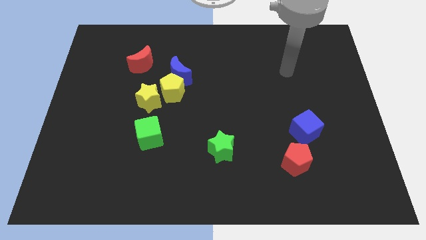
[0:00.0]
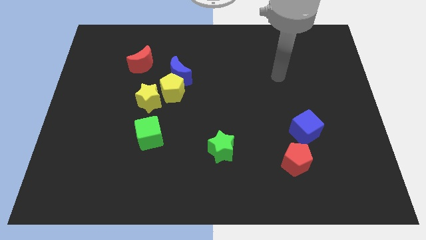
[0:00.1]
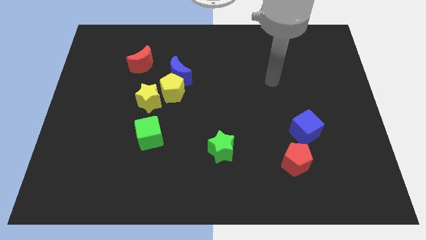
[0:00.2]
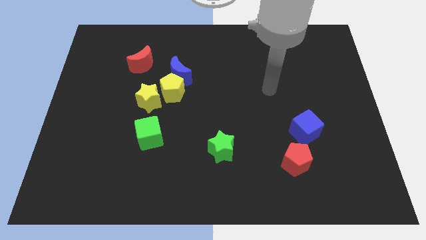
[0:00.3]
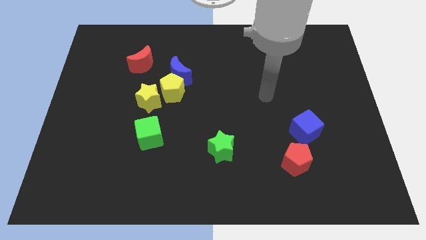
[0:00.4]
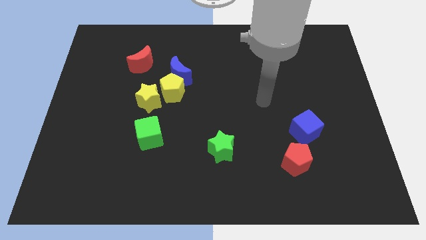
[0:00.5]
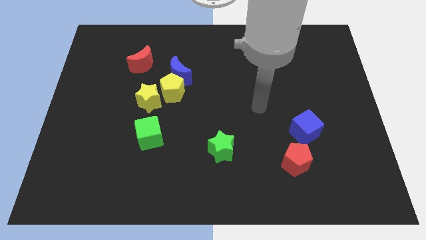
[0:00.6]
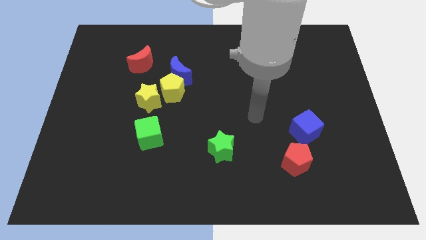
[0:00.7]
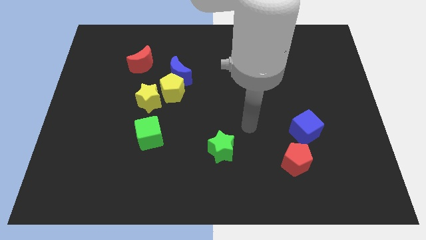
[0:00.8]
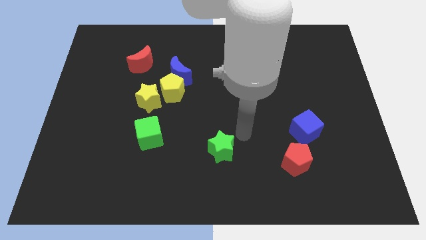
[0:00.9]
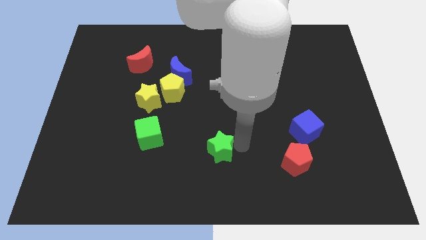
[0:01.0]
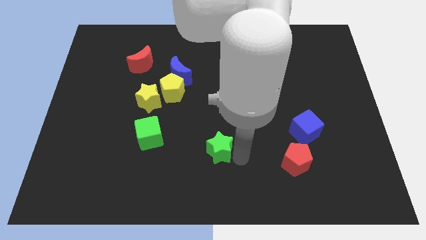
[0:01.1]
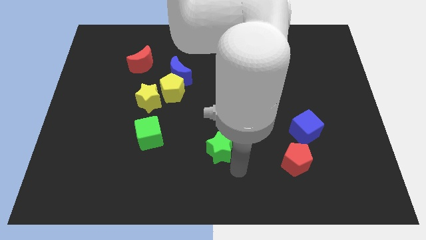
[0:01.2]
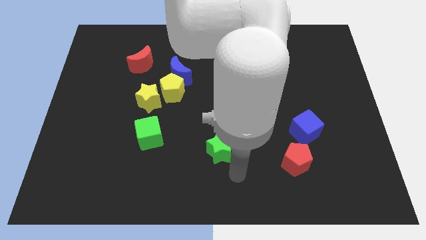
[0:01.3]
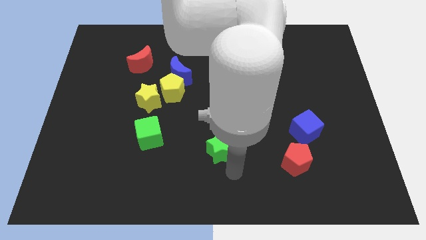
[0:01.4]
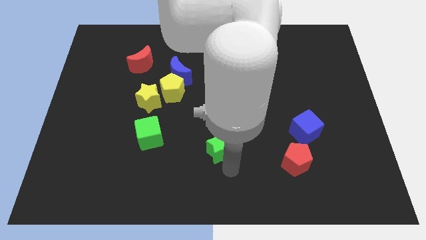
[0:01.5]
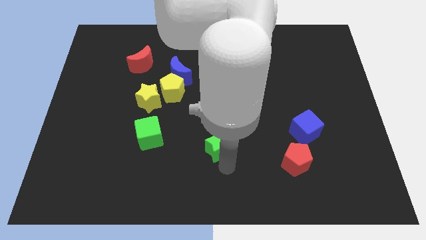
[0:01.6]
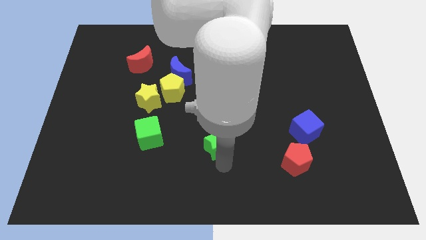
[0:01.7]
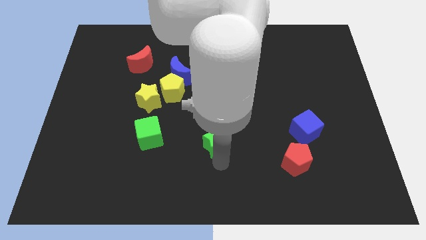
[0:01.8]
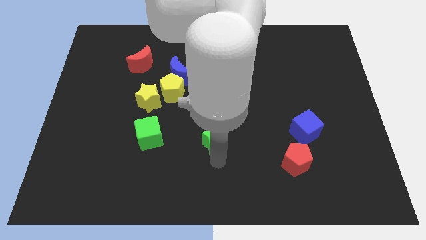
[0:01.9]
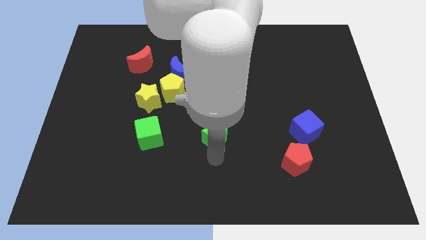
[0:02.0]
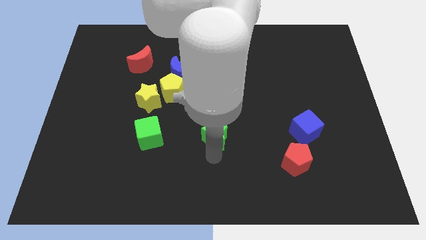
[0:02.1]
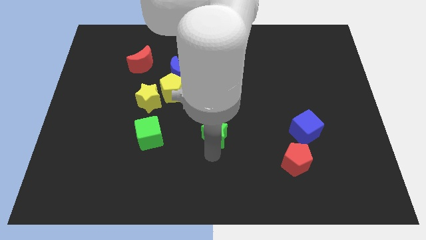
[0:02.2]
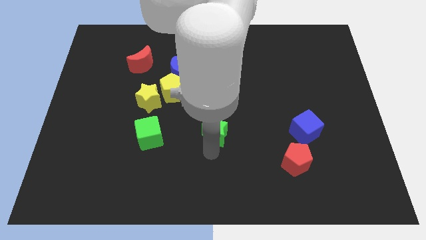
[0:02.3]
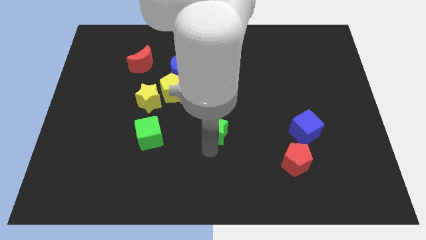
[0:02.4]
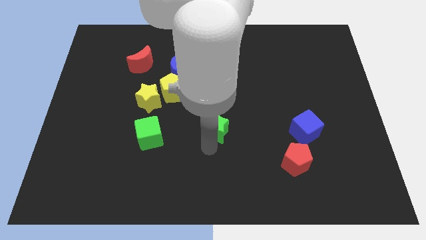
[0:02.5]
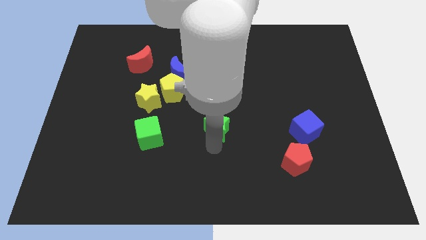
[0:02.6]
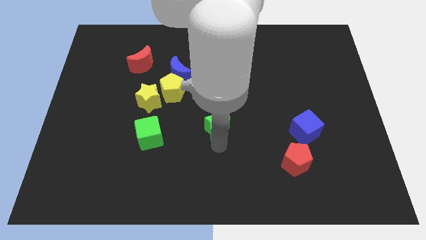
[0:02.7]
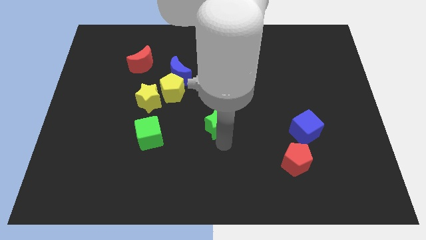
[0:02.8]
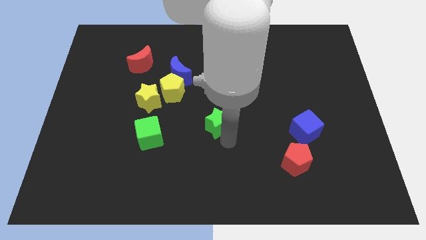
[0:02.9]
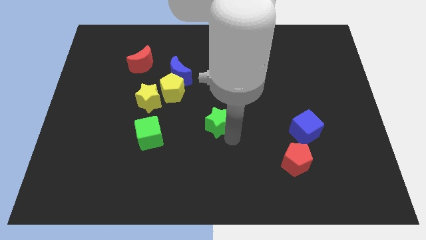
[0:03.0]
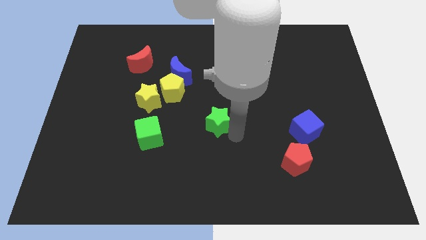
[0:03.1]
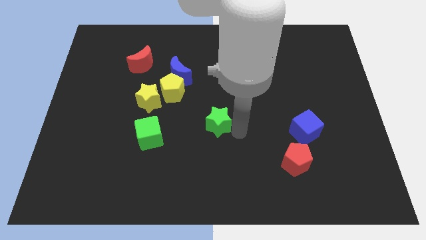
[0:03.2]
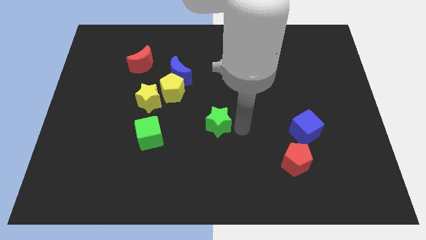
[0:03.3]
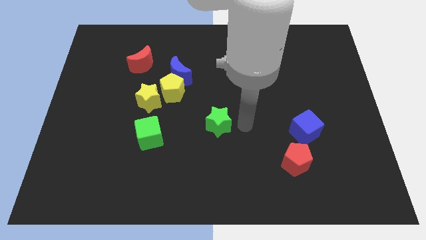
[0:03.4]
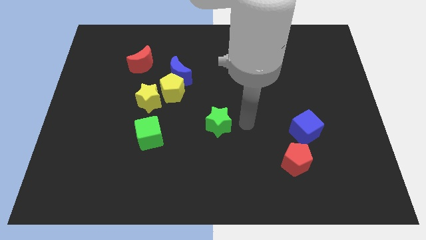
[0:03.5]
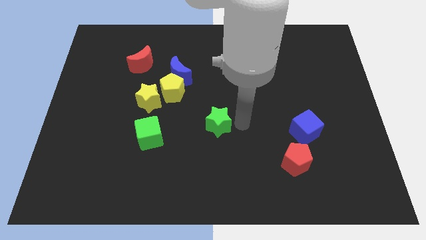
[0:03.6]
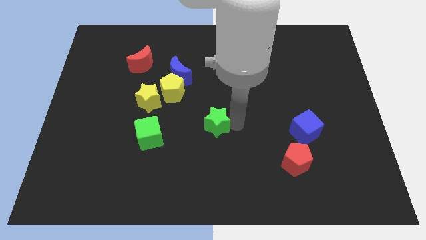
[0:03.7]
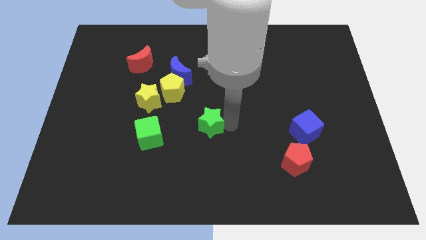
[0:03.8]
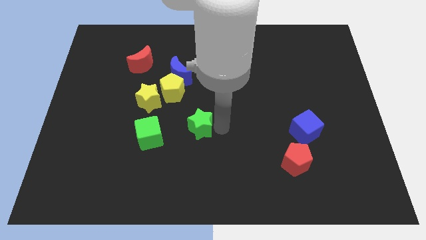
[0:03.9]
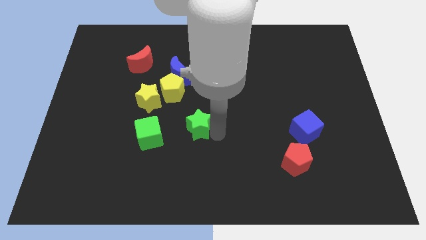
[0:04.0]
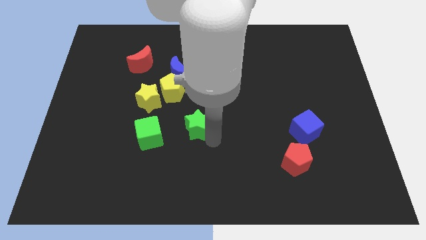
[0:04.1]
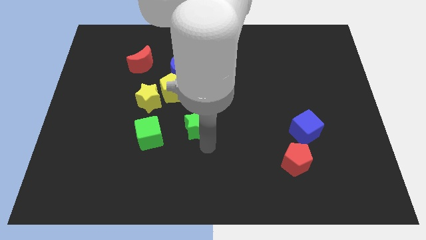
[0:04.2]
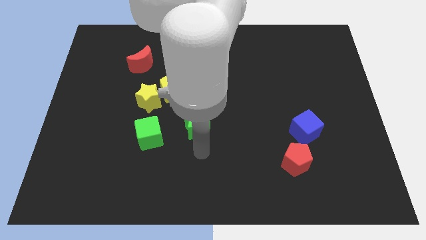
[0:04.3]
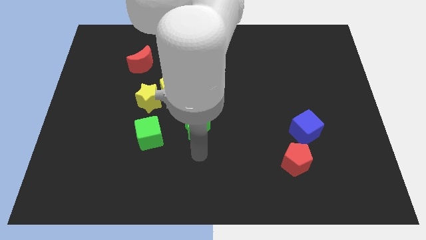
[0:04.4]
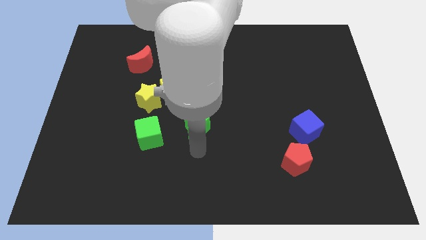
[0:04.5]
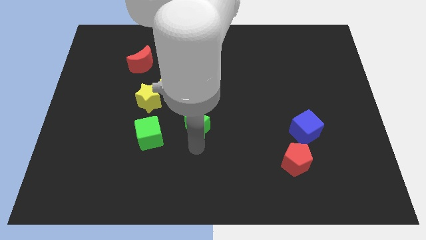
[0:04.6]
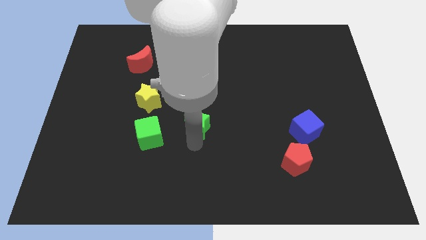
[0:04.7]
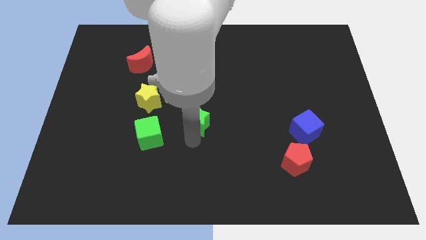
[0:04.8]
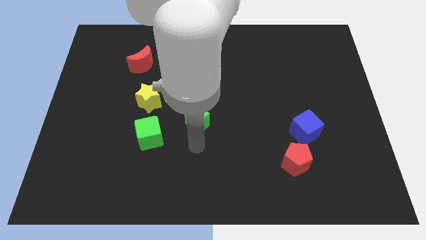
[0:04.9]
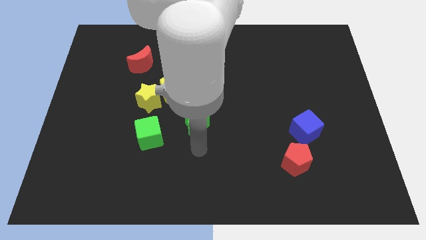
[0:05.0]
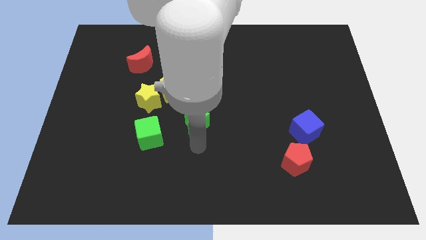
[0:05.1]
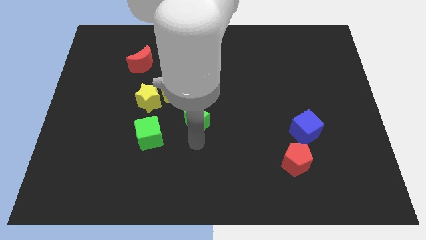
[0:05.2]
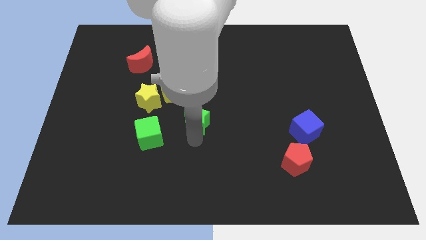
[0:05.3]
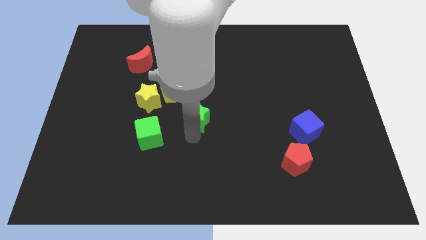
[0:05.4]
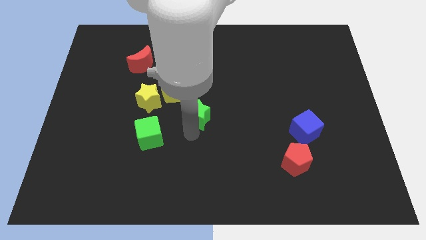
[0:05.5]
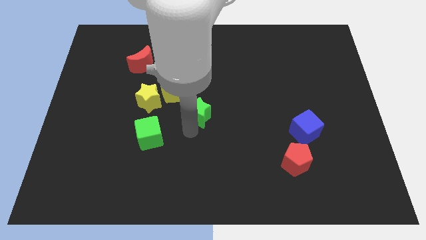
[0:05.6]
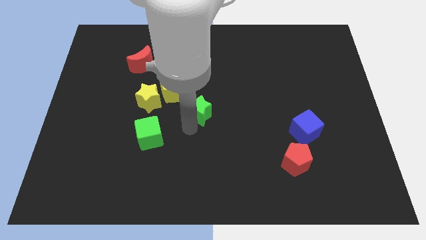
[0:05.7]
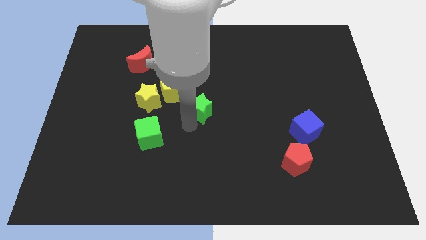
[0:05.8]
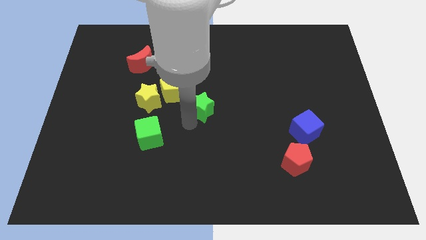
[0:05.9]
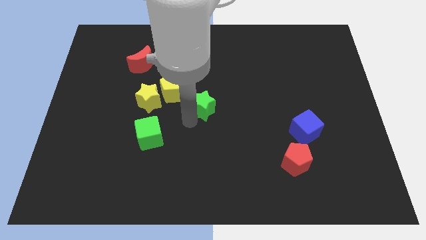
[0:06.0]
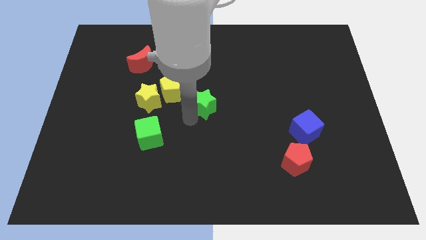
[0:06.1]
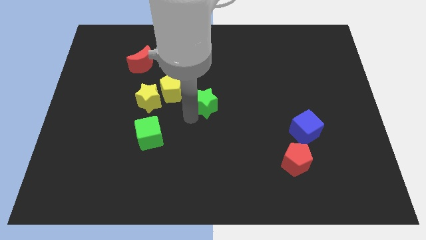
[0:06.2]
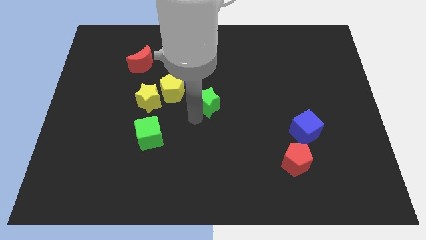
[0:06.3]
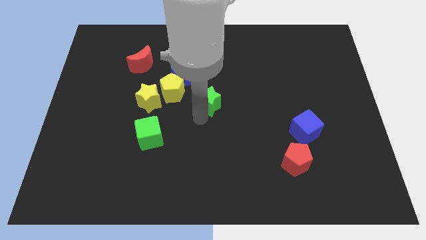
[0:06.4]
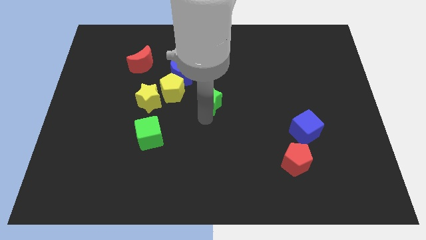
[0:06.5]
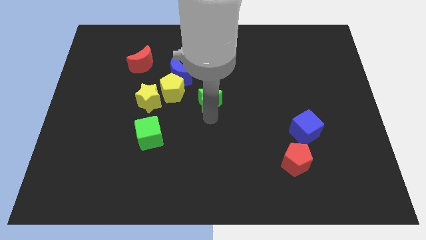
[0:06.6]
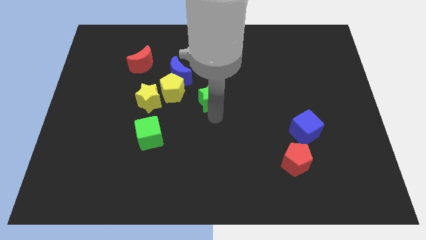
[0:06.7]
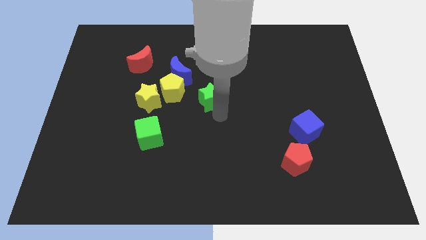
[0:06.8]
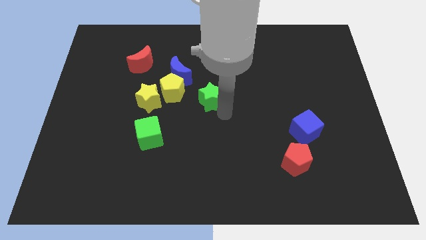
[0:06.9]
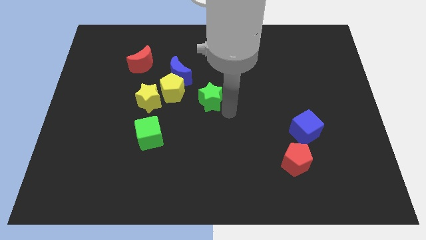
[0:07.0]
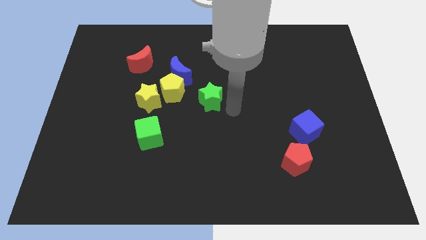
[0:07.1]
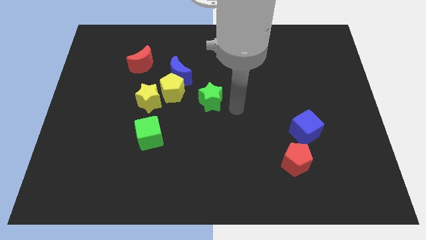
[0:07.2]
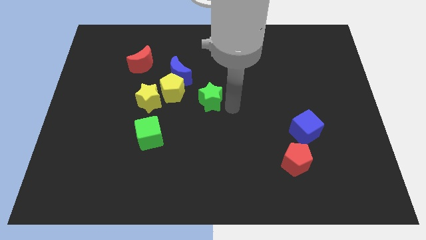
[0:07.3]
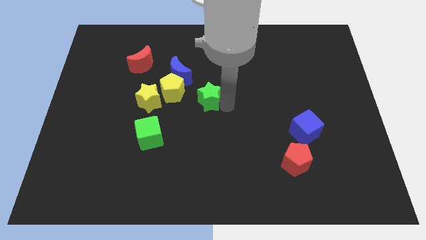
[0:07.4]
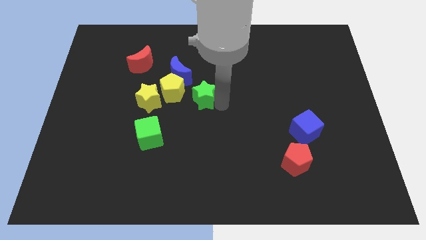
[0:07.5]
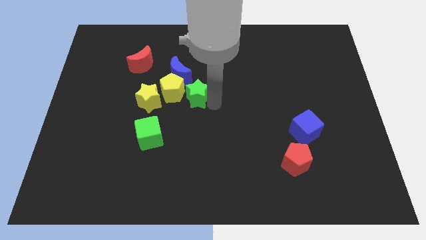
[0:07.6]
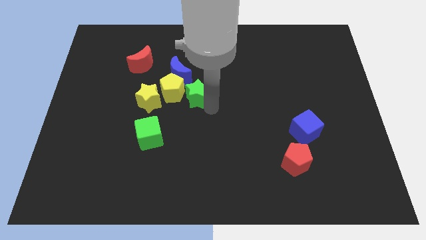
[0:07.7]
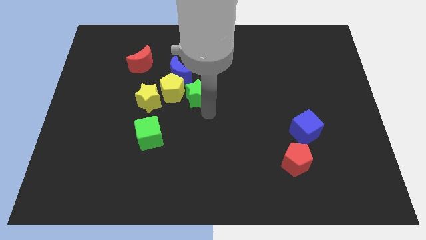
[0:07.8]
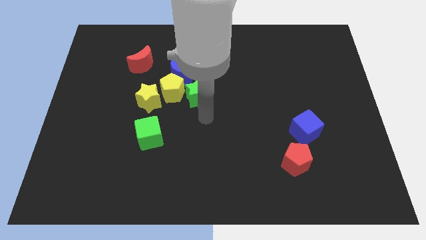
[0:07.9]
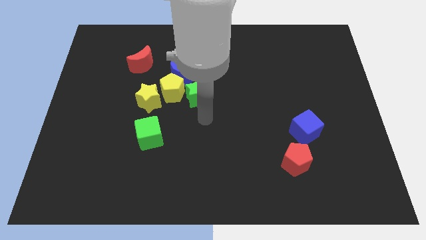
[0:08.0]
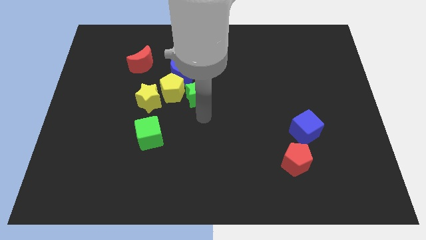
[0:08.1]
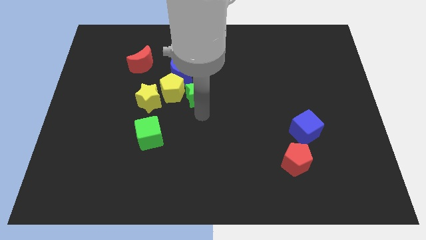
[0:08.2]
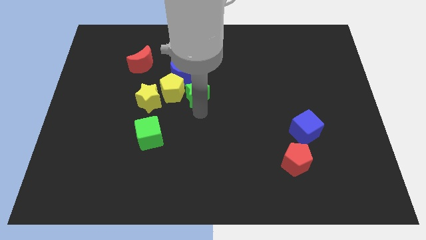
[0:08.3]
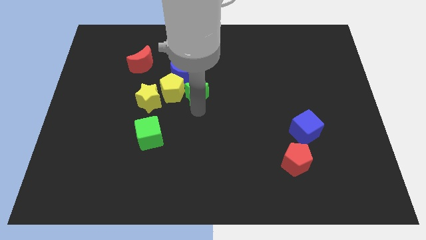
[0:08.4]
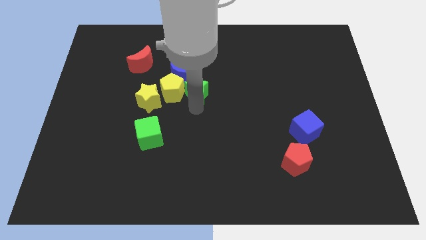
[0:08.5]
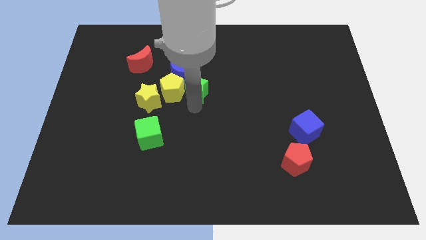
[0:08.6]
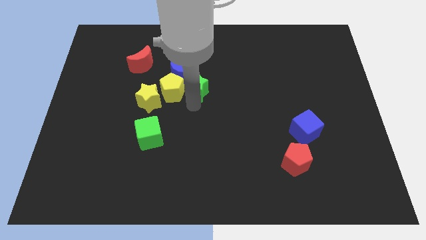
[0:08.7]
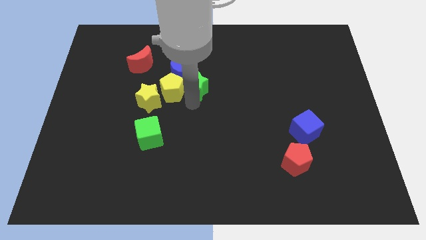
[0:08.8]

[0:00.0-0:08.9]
push the green star to the blue moon
